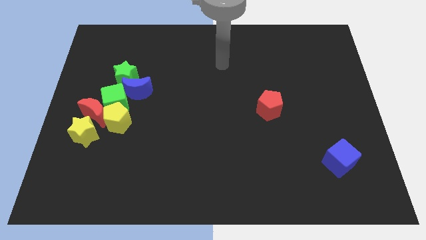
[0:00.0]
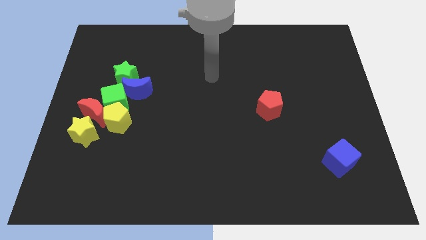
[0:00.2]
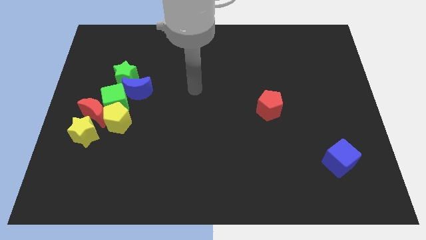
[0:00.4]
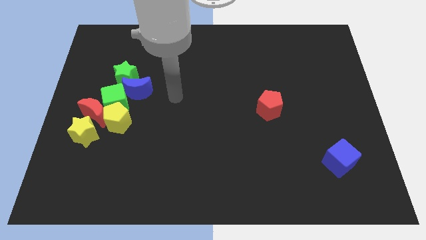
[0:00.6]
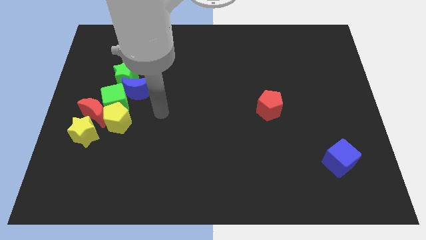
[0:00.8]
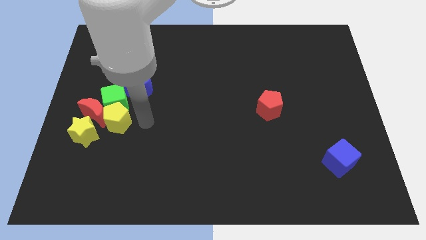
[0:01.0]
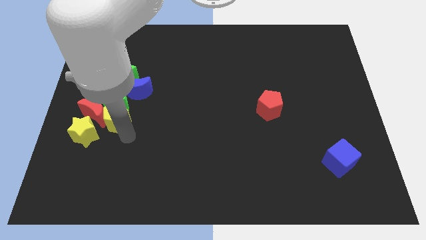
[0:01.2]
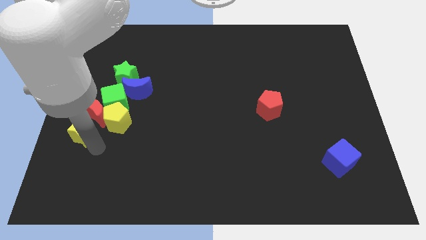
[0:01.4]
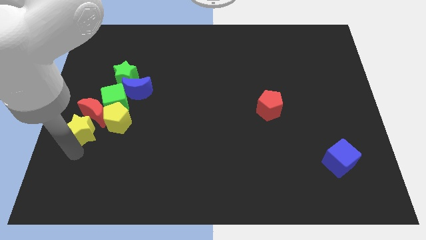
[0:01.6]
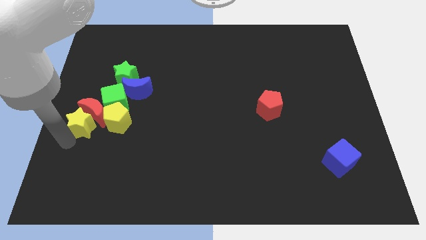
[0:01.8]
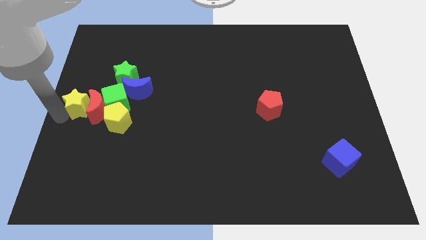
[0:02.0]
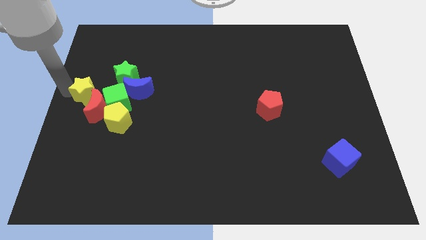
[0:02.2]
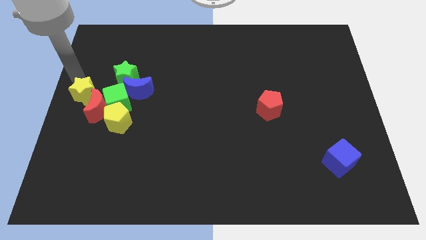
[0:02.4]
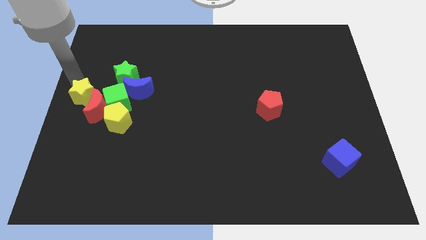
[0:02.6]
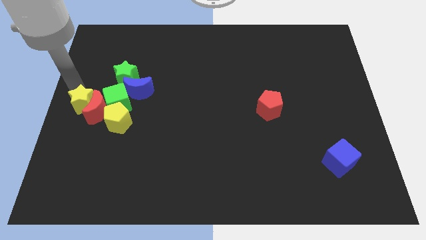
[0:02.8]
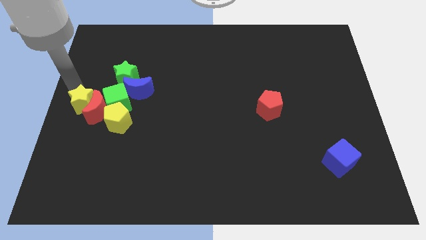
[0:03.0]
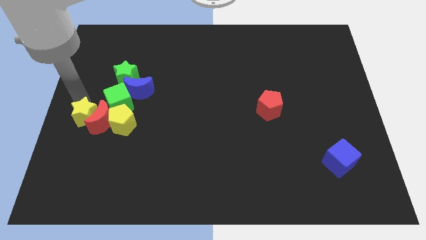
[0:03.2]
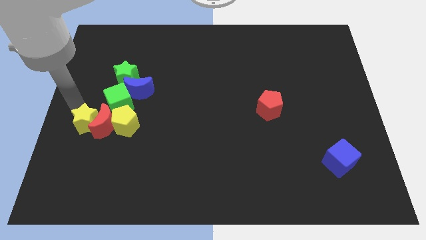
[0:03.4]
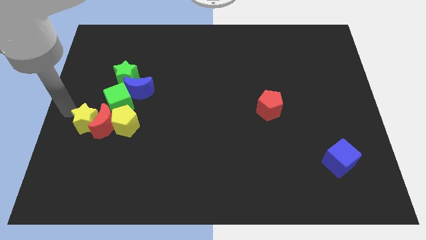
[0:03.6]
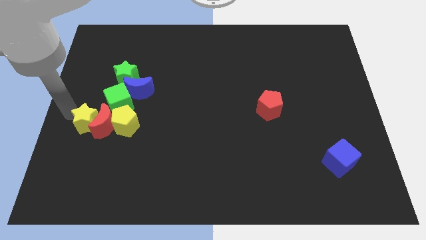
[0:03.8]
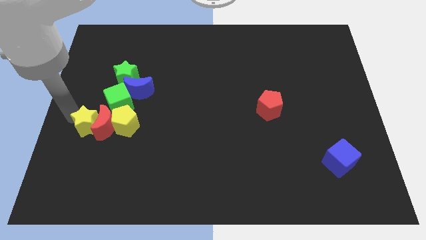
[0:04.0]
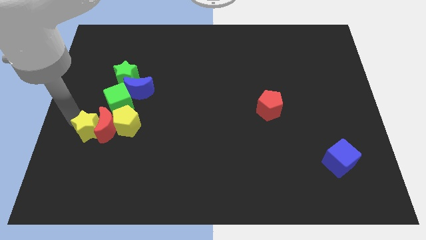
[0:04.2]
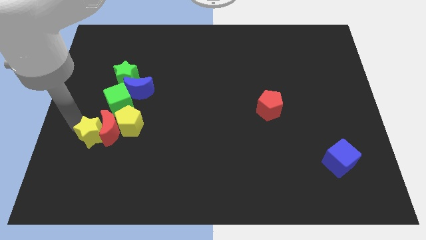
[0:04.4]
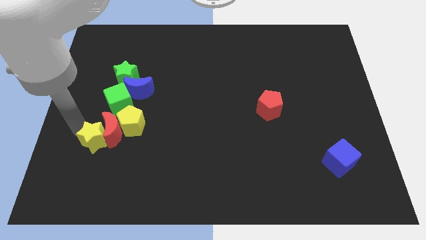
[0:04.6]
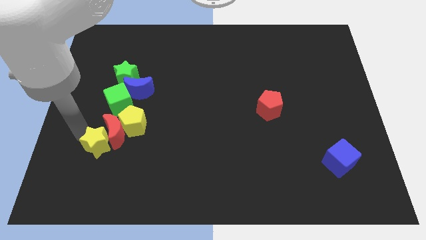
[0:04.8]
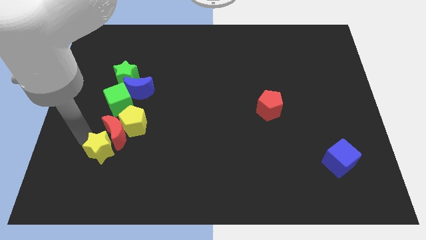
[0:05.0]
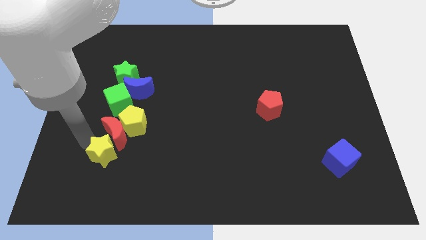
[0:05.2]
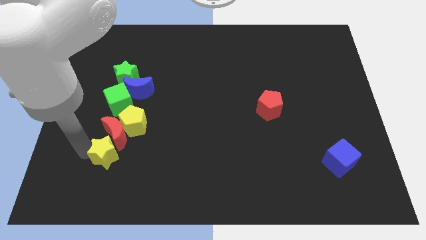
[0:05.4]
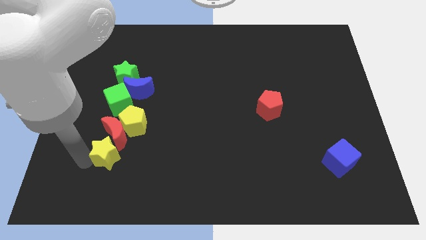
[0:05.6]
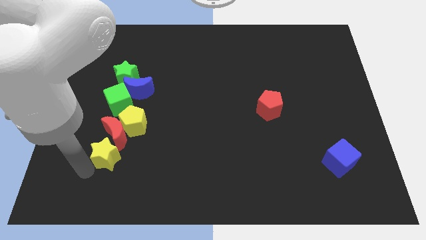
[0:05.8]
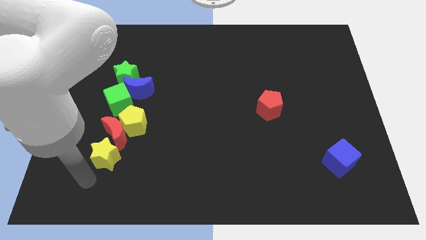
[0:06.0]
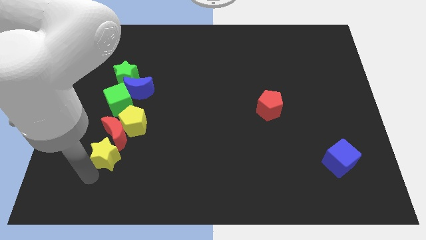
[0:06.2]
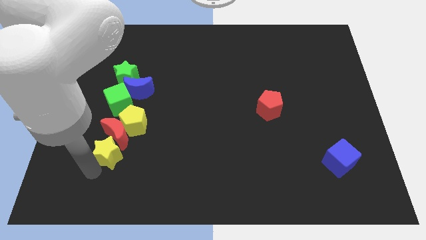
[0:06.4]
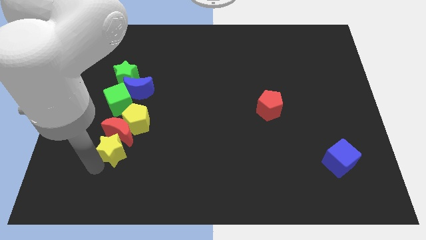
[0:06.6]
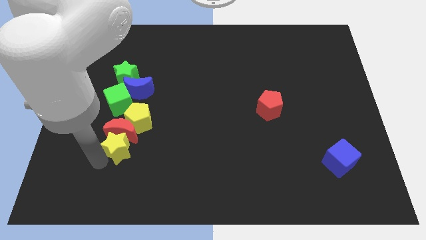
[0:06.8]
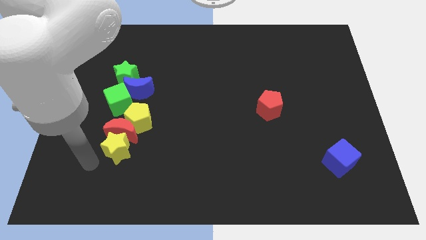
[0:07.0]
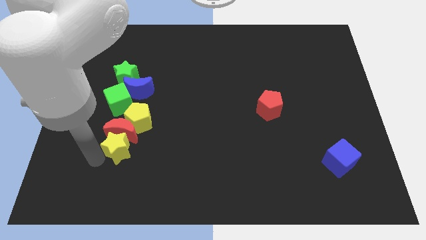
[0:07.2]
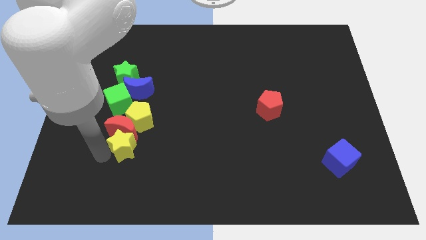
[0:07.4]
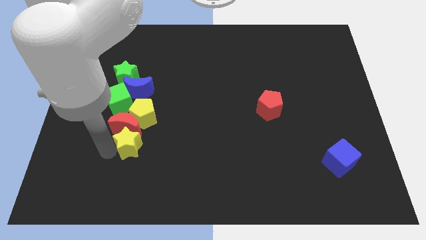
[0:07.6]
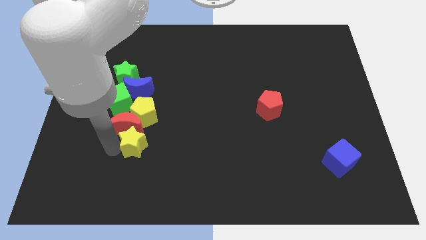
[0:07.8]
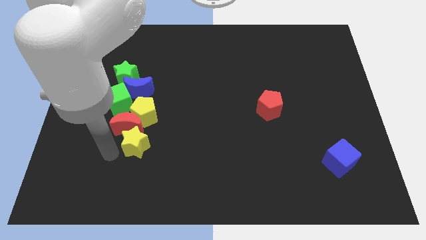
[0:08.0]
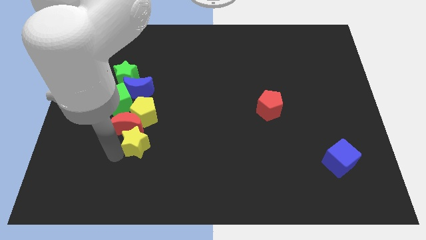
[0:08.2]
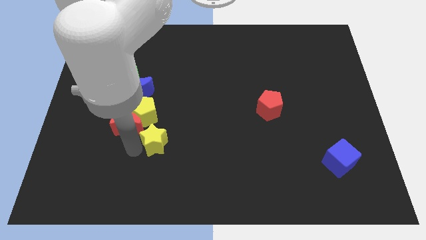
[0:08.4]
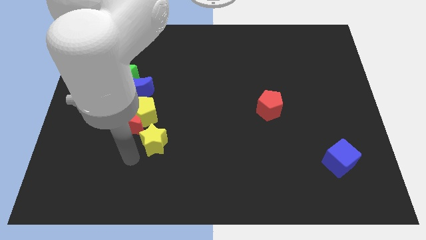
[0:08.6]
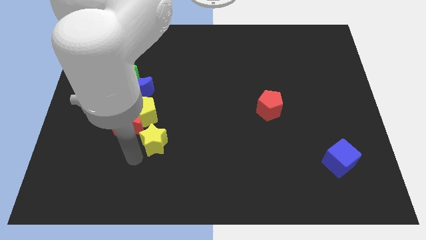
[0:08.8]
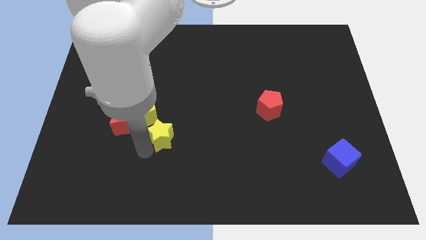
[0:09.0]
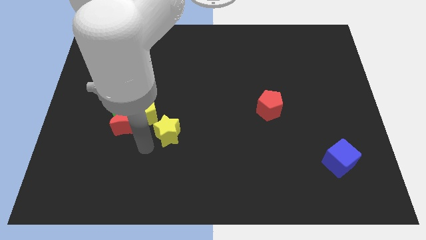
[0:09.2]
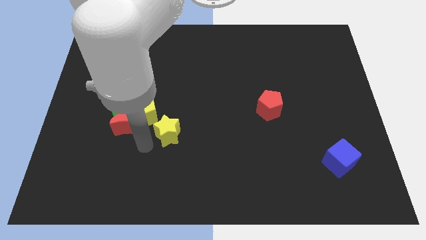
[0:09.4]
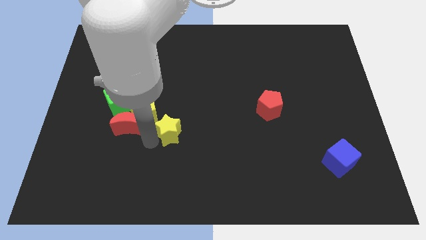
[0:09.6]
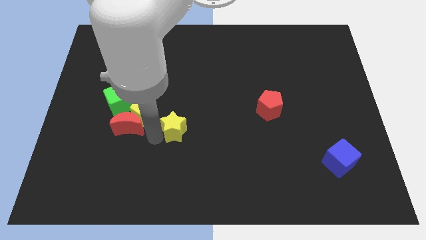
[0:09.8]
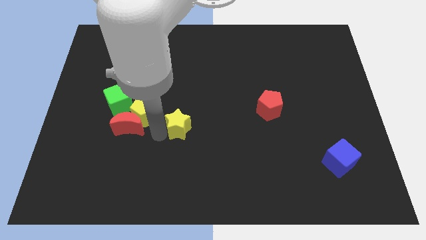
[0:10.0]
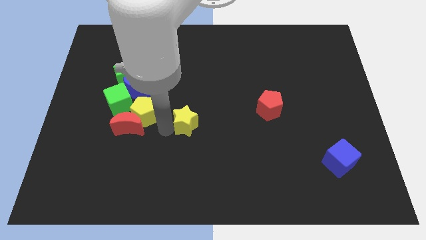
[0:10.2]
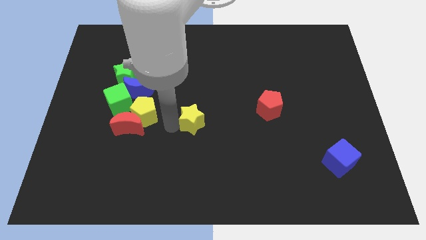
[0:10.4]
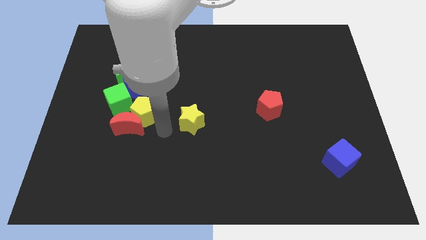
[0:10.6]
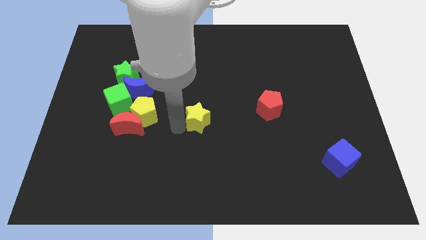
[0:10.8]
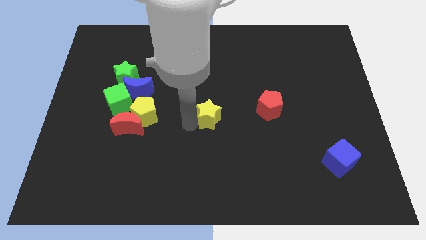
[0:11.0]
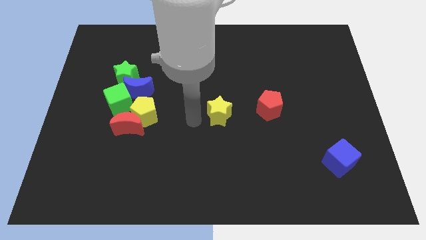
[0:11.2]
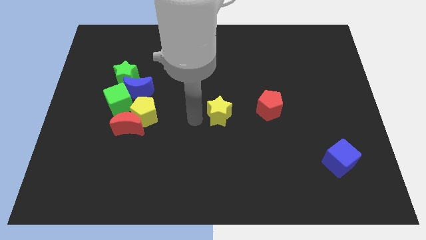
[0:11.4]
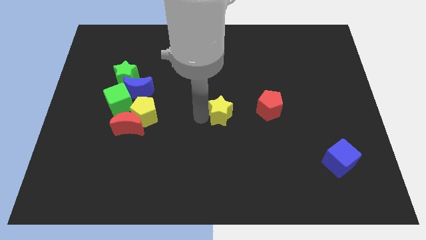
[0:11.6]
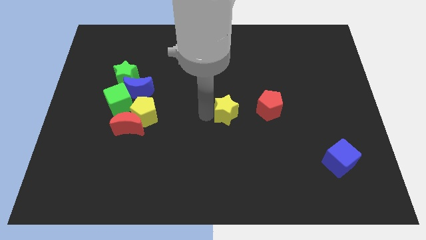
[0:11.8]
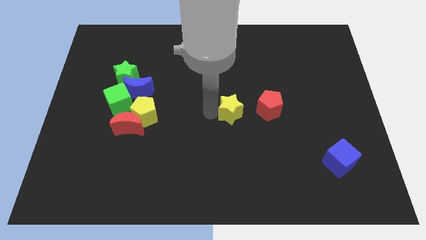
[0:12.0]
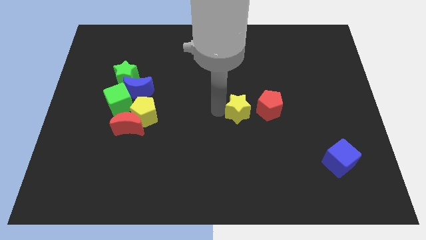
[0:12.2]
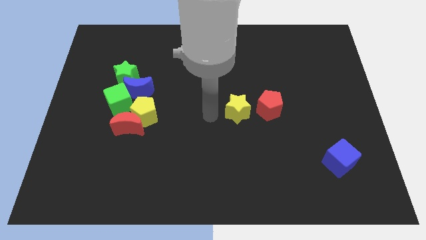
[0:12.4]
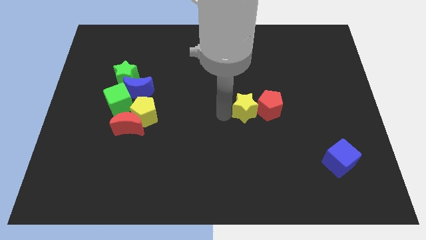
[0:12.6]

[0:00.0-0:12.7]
put the yellow star to the red pentagon
